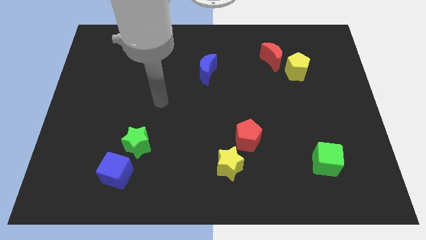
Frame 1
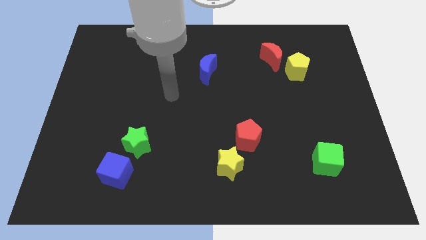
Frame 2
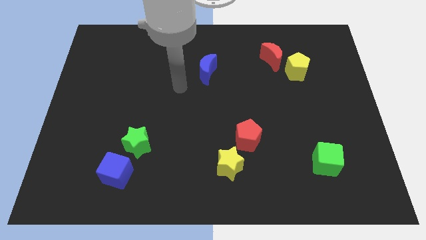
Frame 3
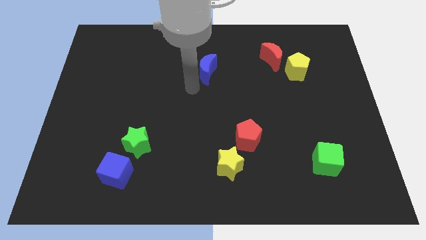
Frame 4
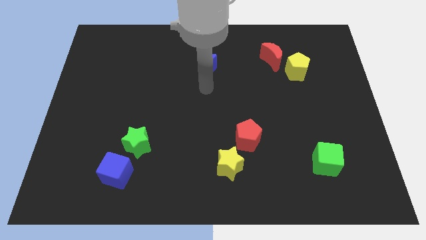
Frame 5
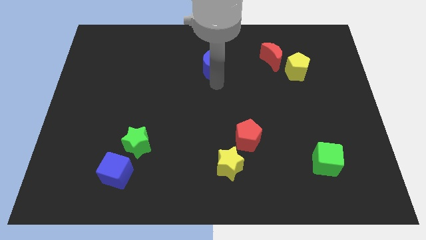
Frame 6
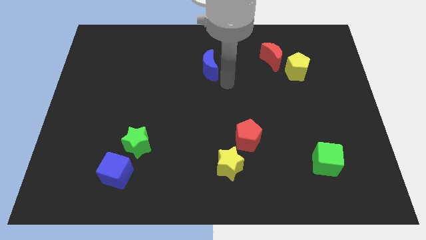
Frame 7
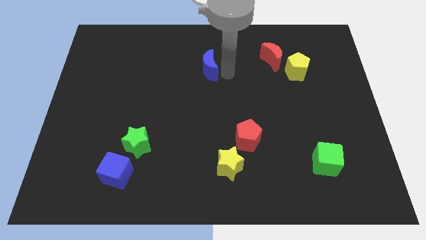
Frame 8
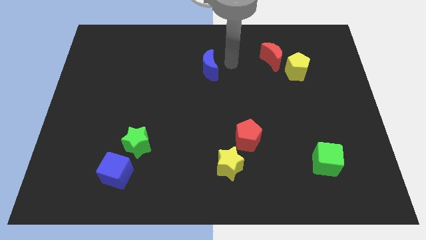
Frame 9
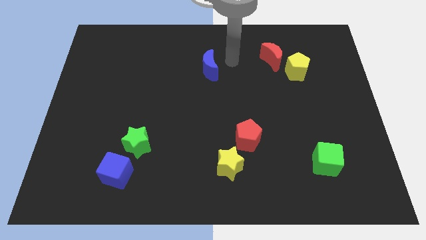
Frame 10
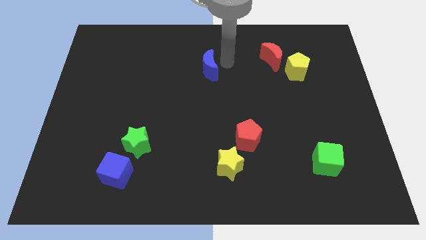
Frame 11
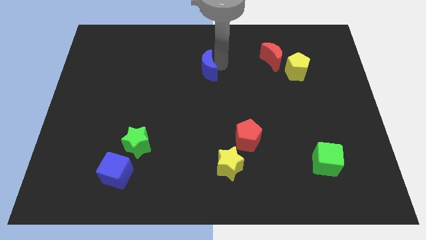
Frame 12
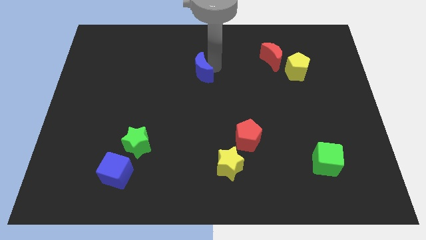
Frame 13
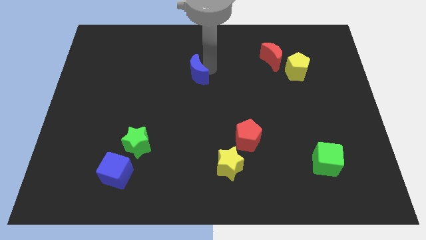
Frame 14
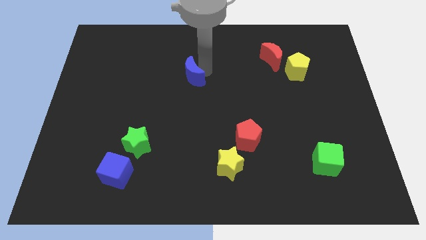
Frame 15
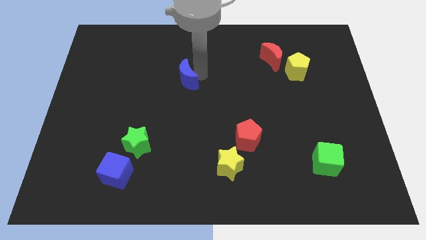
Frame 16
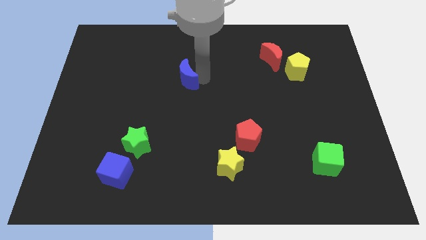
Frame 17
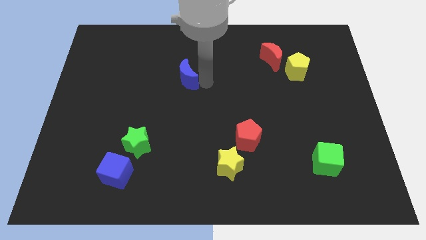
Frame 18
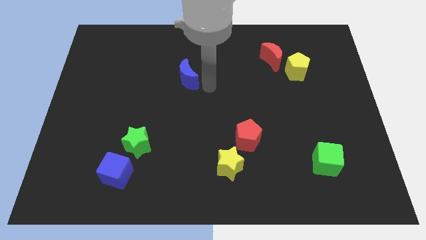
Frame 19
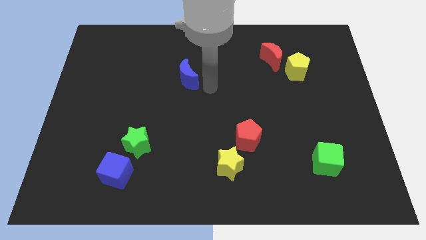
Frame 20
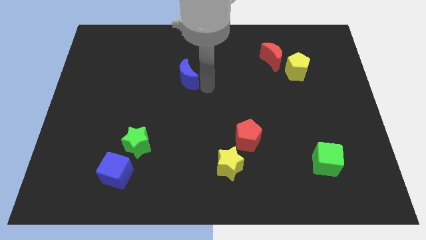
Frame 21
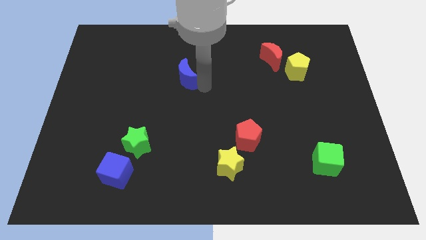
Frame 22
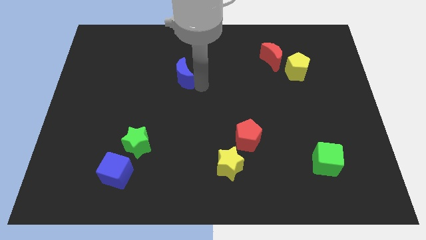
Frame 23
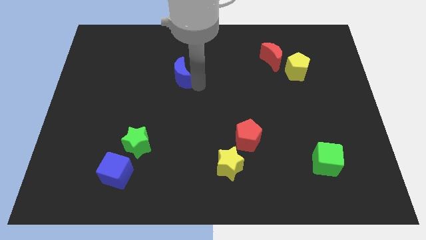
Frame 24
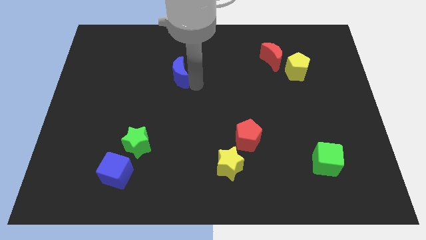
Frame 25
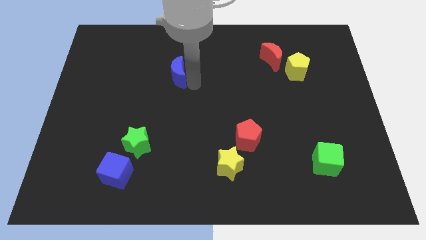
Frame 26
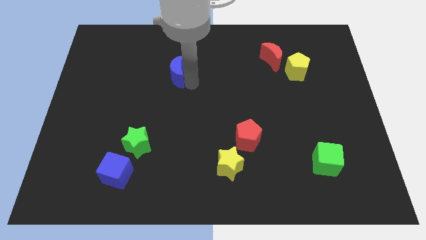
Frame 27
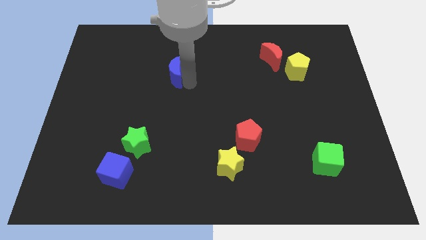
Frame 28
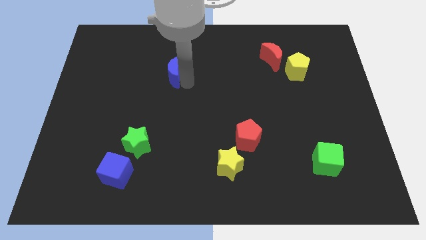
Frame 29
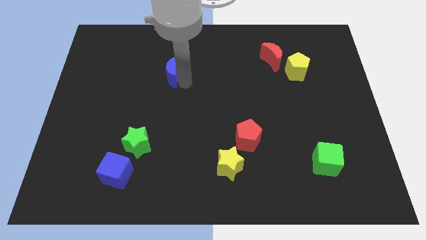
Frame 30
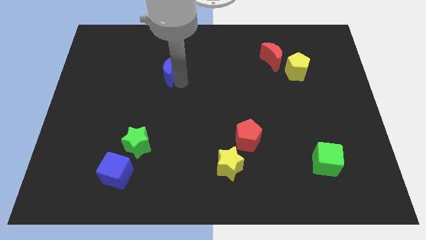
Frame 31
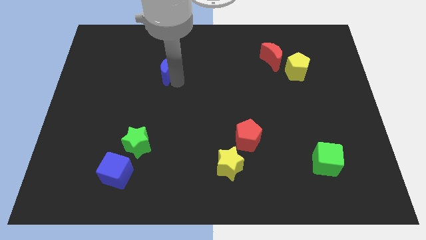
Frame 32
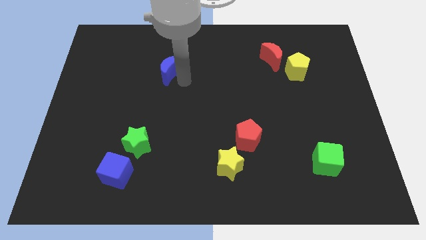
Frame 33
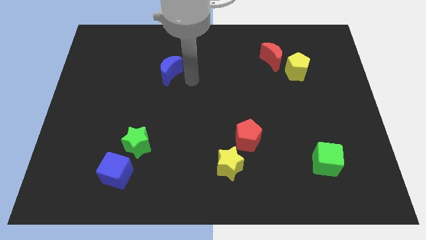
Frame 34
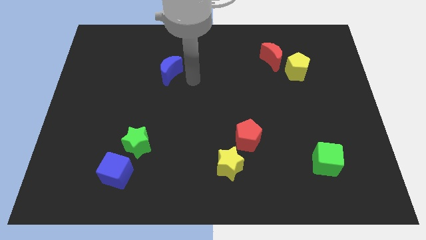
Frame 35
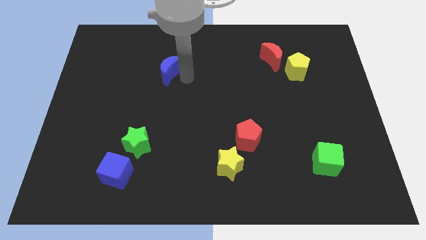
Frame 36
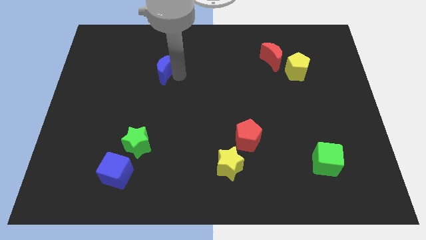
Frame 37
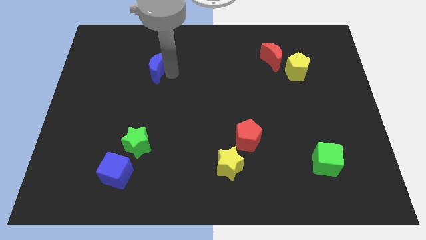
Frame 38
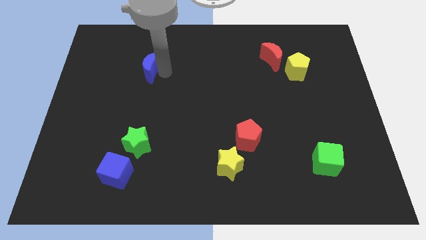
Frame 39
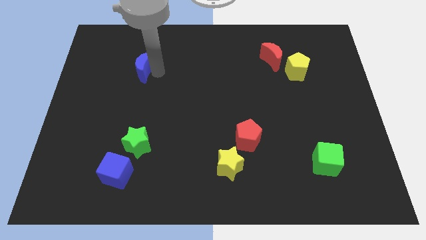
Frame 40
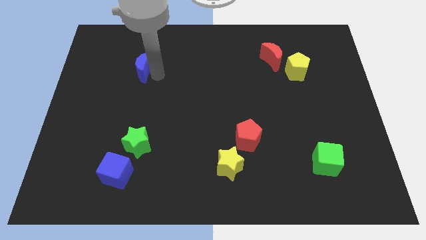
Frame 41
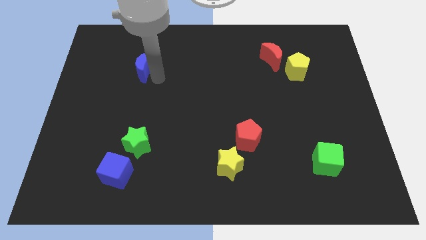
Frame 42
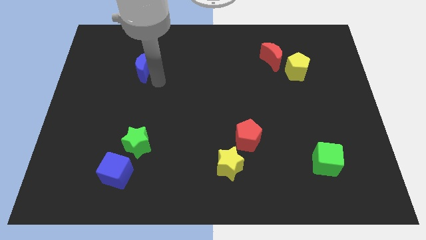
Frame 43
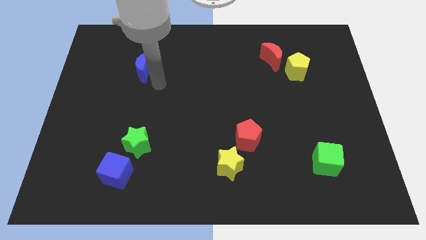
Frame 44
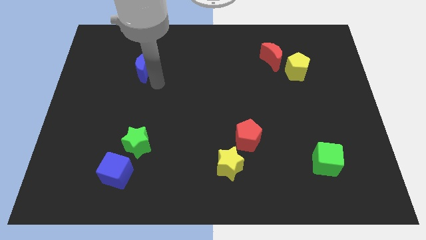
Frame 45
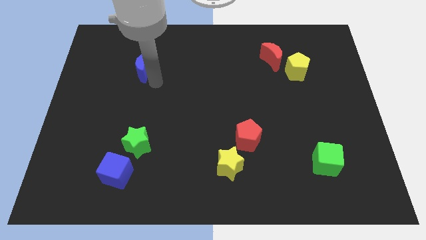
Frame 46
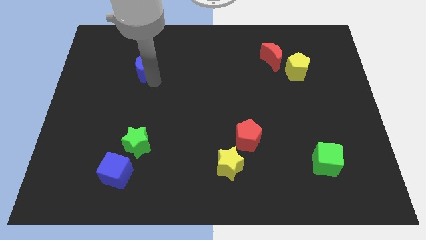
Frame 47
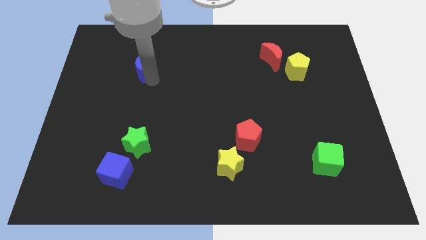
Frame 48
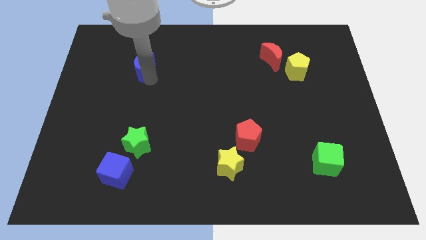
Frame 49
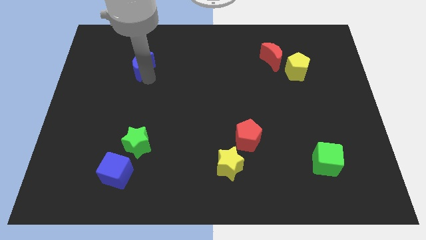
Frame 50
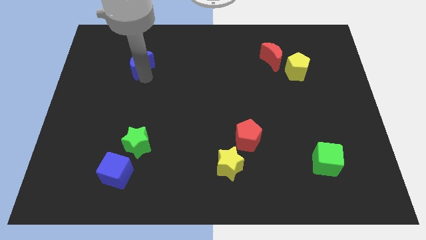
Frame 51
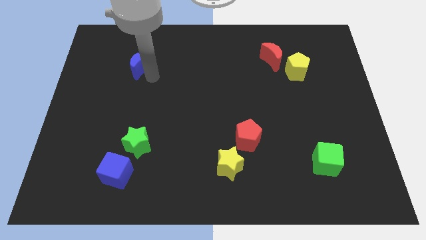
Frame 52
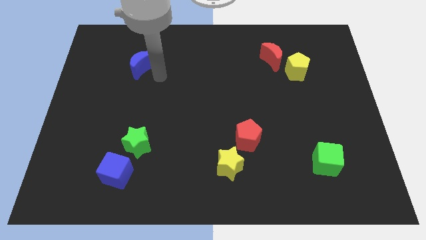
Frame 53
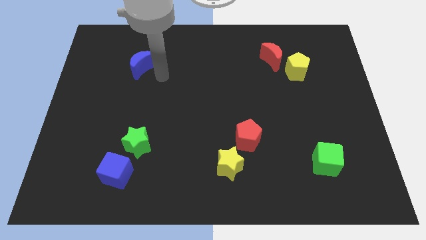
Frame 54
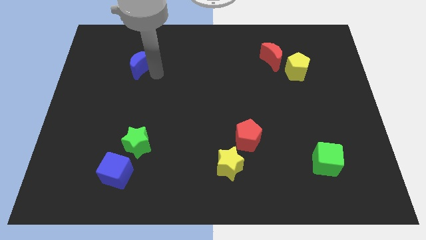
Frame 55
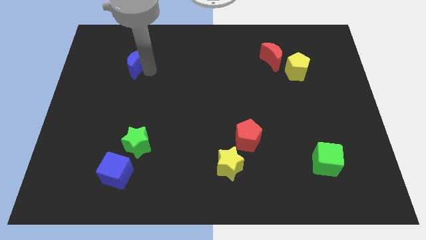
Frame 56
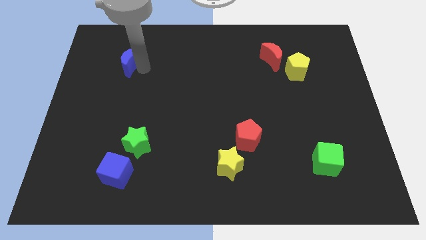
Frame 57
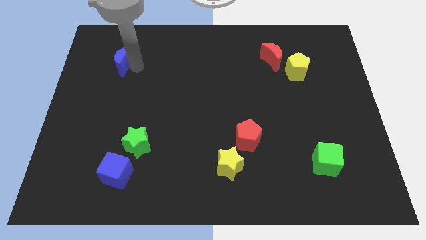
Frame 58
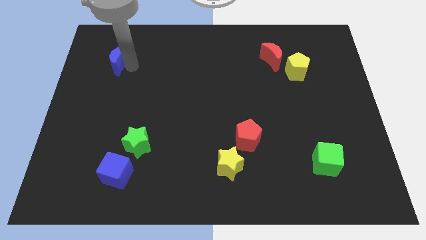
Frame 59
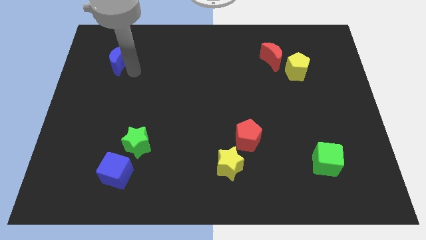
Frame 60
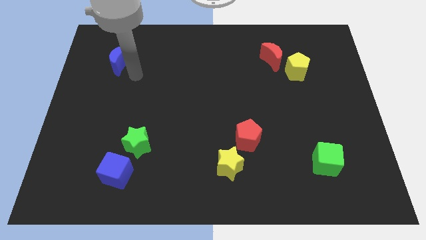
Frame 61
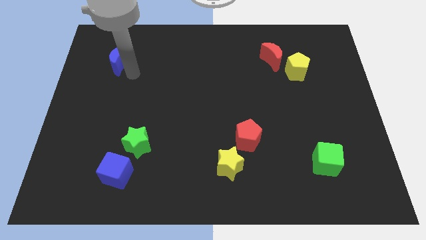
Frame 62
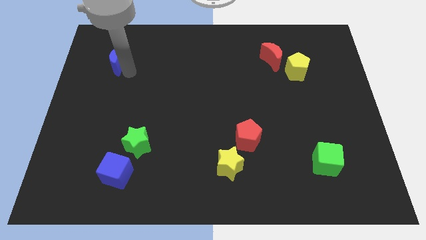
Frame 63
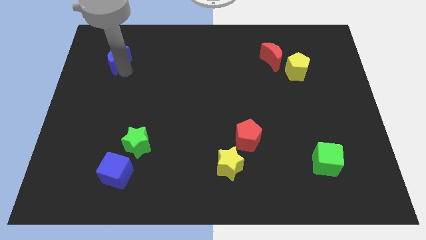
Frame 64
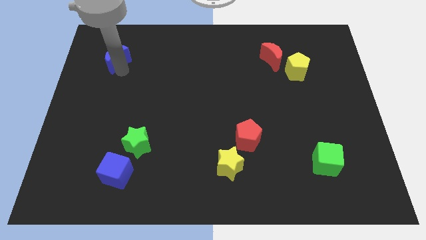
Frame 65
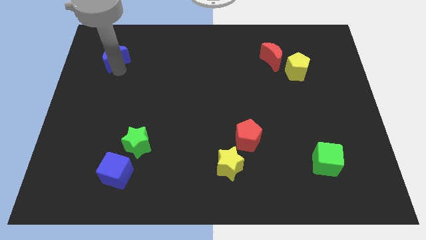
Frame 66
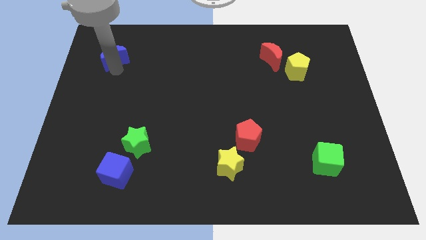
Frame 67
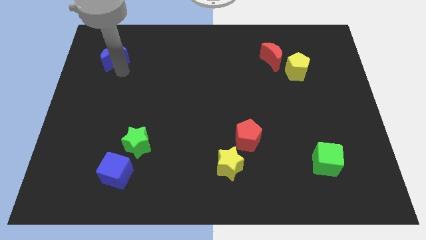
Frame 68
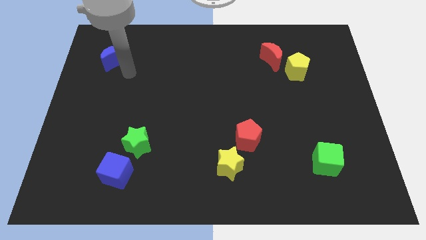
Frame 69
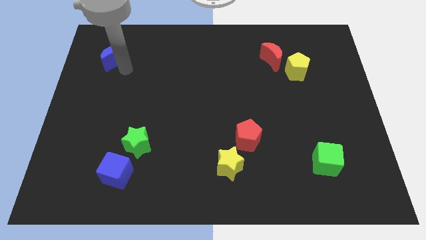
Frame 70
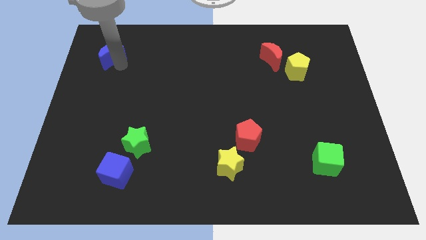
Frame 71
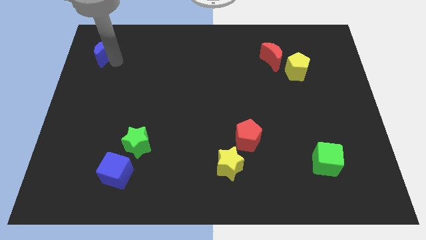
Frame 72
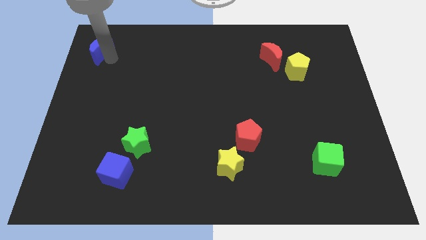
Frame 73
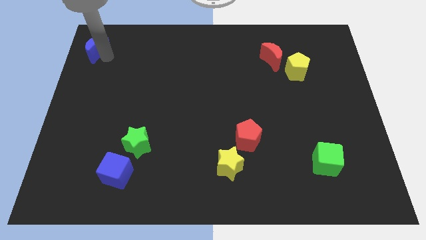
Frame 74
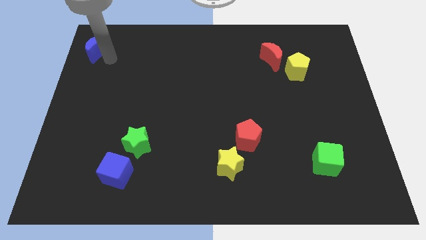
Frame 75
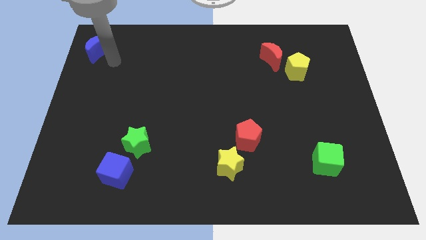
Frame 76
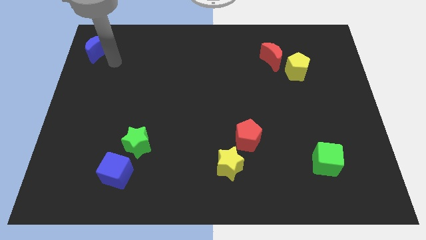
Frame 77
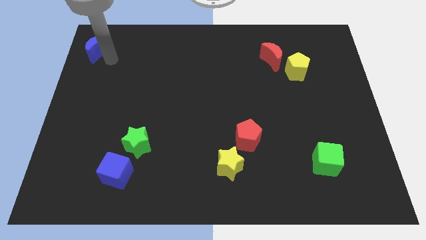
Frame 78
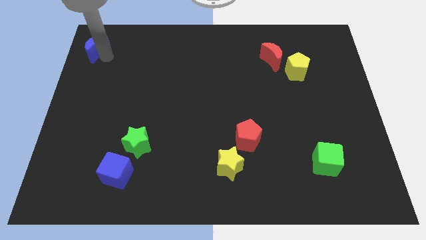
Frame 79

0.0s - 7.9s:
push the blue moon to the top left of the board
